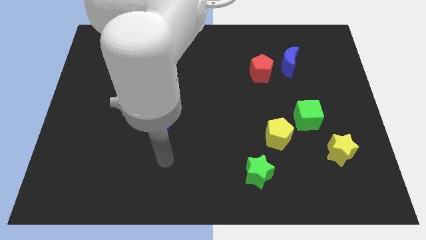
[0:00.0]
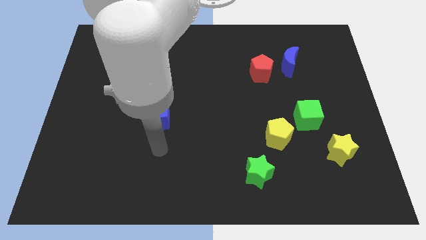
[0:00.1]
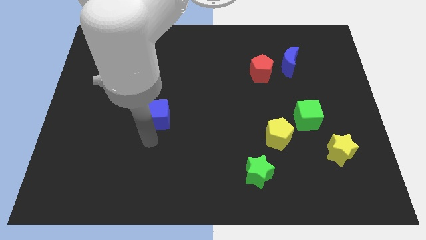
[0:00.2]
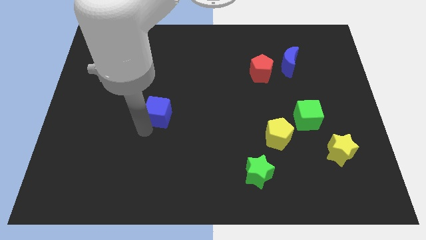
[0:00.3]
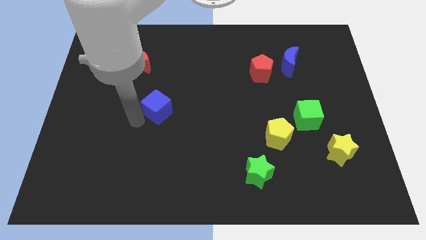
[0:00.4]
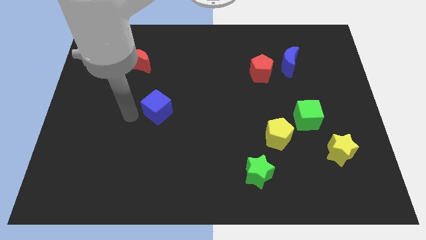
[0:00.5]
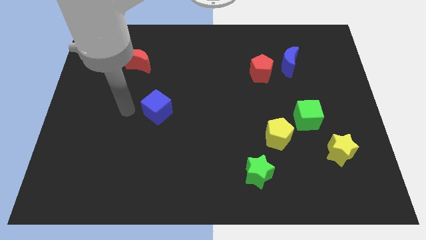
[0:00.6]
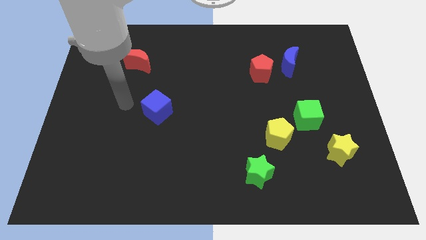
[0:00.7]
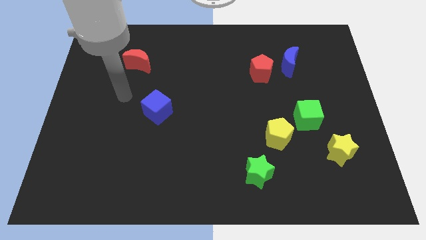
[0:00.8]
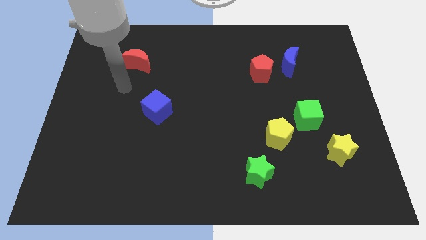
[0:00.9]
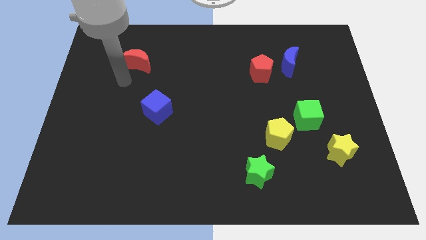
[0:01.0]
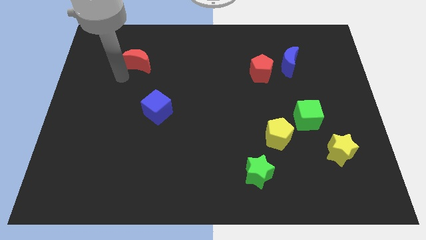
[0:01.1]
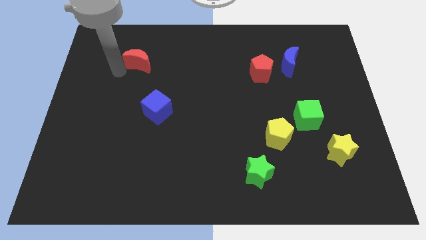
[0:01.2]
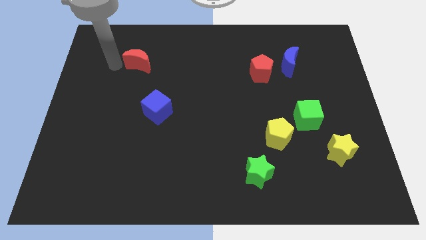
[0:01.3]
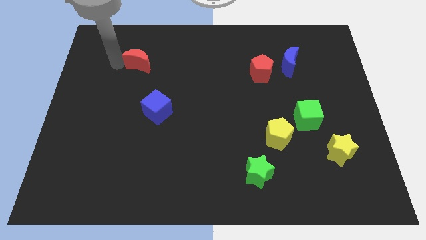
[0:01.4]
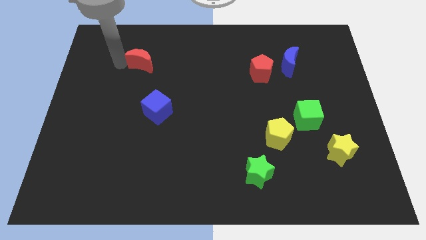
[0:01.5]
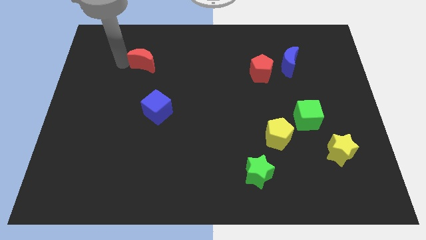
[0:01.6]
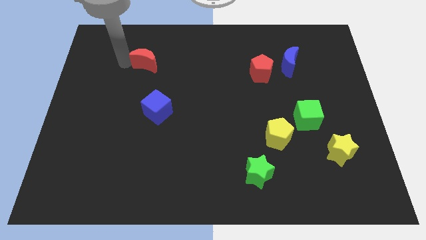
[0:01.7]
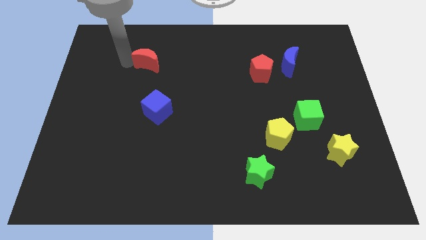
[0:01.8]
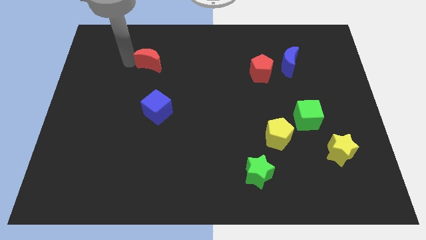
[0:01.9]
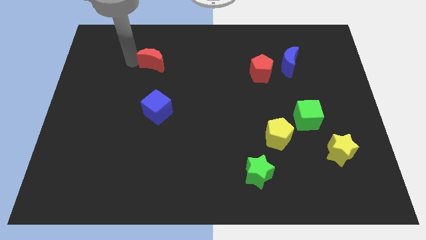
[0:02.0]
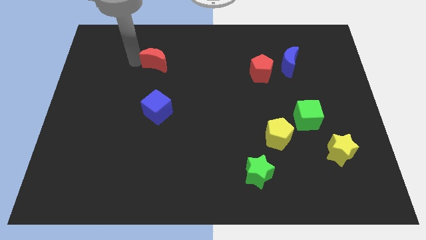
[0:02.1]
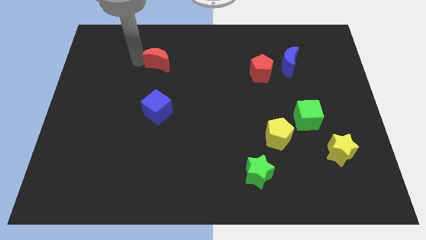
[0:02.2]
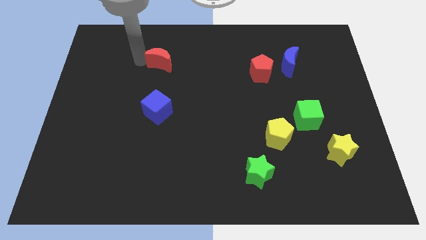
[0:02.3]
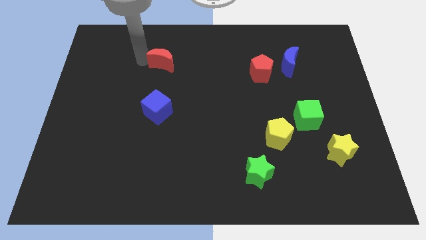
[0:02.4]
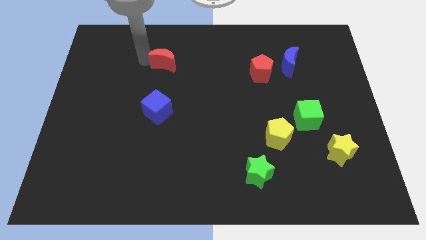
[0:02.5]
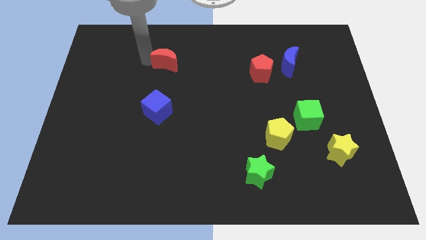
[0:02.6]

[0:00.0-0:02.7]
slide the red moon to the right a little

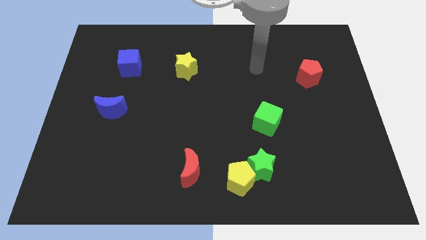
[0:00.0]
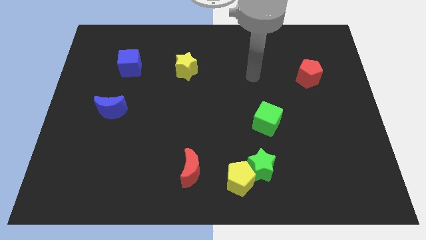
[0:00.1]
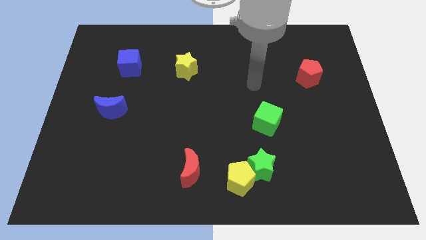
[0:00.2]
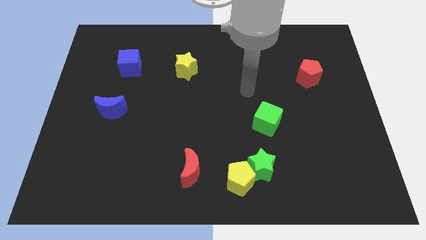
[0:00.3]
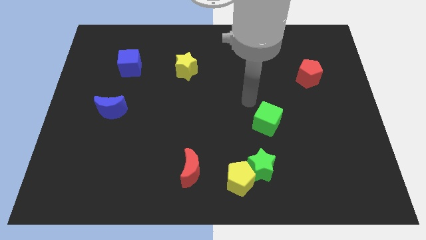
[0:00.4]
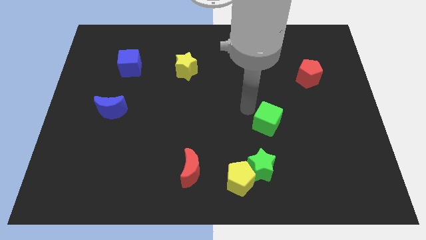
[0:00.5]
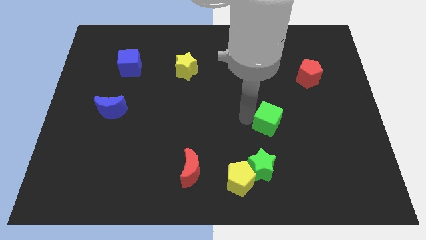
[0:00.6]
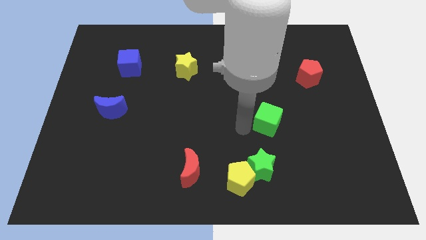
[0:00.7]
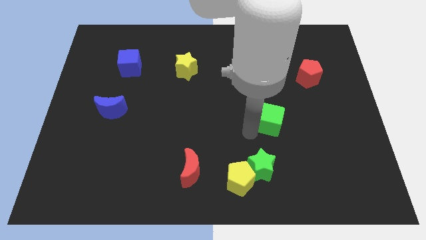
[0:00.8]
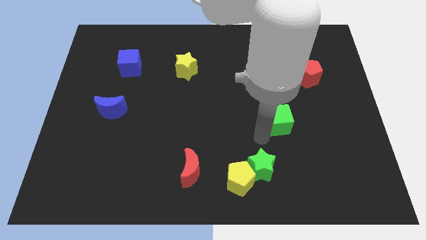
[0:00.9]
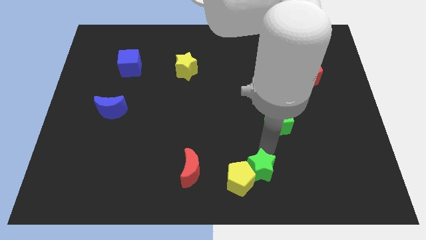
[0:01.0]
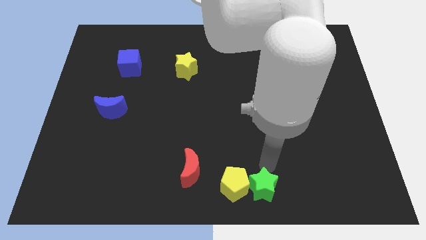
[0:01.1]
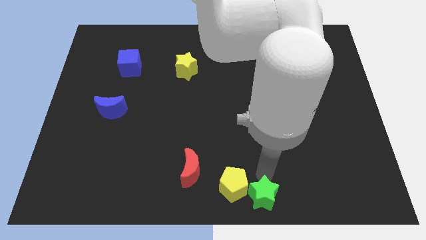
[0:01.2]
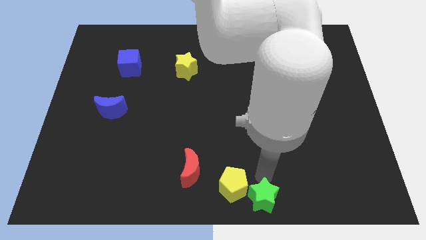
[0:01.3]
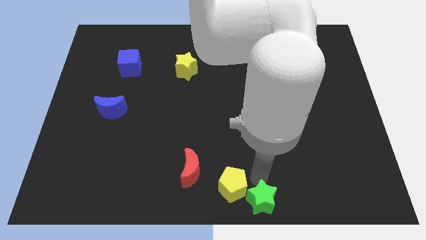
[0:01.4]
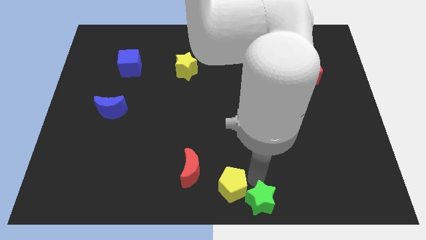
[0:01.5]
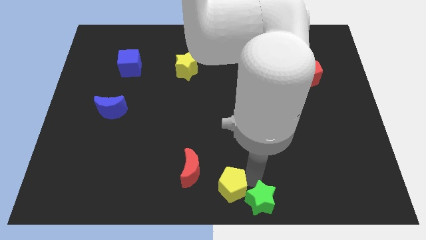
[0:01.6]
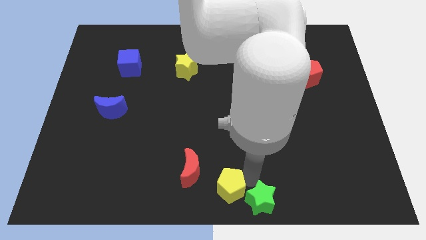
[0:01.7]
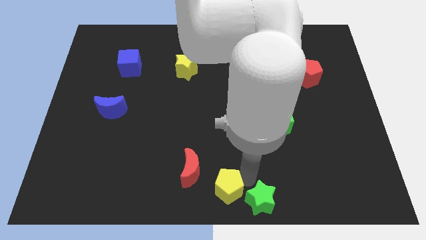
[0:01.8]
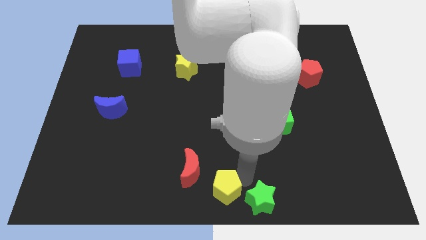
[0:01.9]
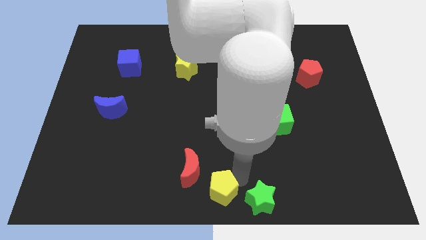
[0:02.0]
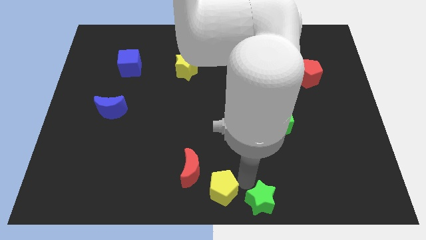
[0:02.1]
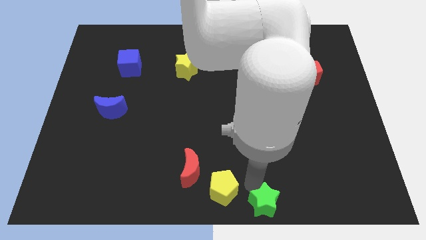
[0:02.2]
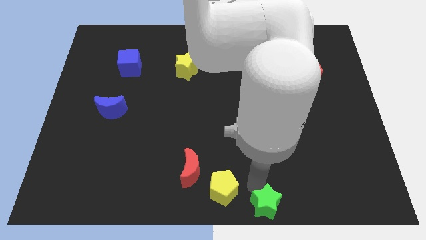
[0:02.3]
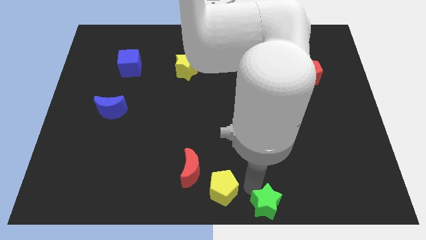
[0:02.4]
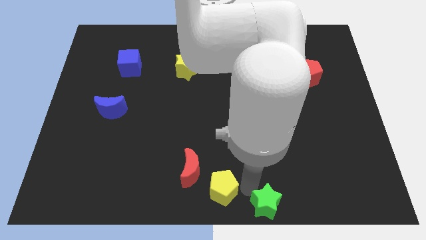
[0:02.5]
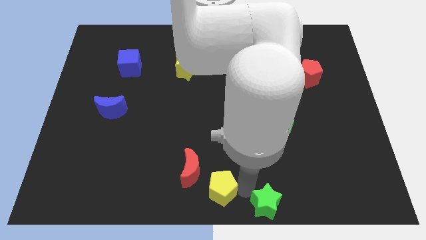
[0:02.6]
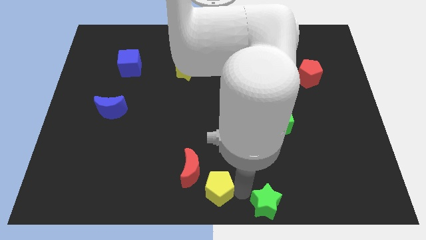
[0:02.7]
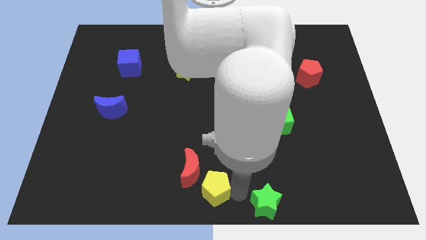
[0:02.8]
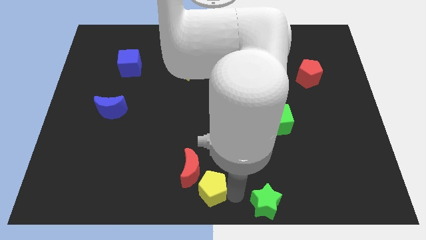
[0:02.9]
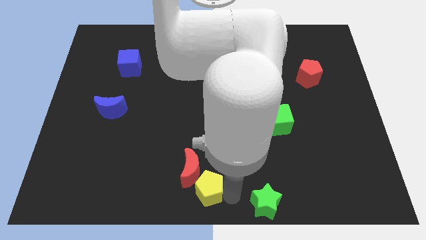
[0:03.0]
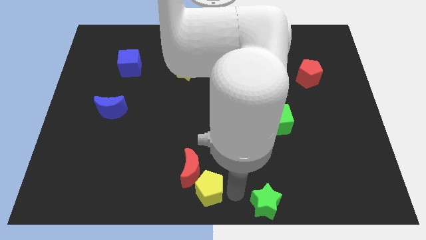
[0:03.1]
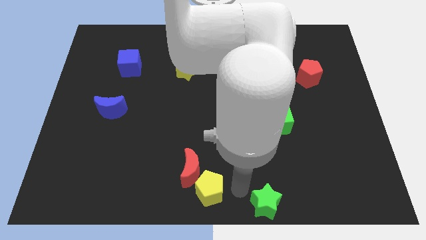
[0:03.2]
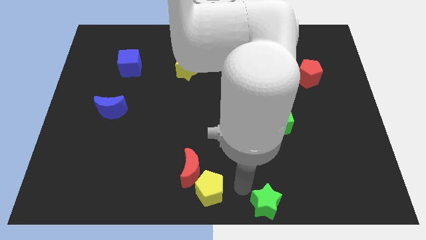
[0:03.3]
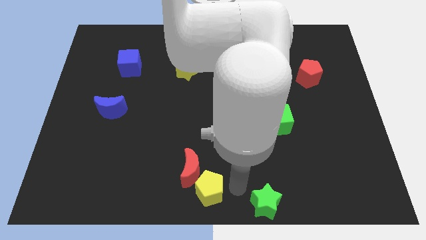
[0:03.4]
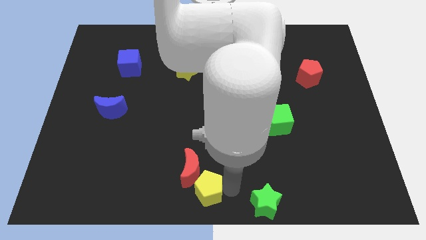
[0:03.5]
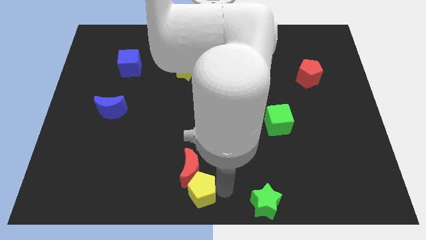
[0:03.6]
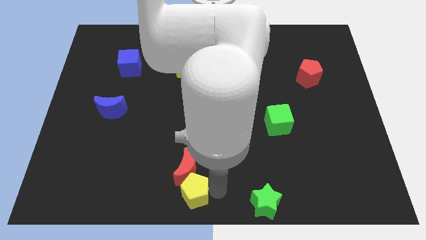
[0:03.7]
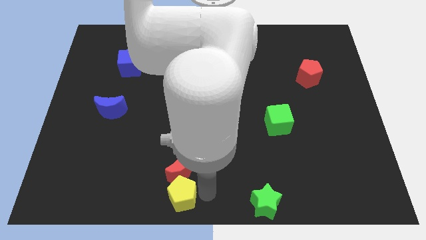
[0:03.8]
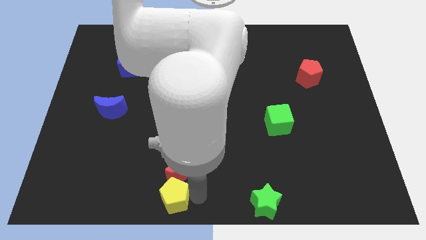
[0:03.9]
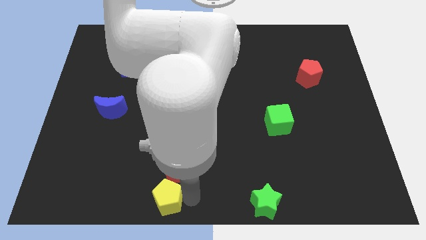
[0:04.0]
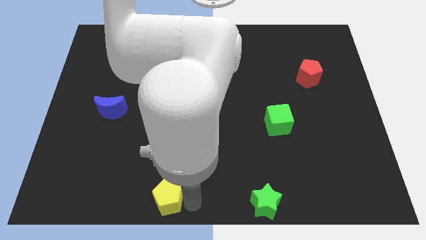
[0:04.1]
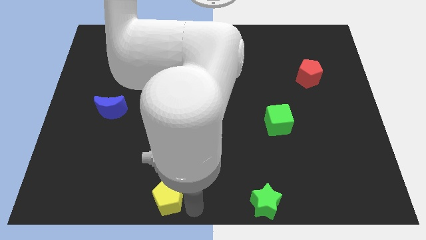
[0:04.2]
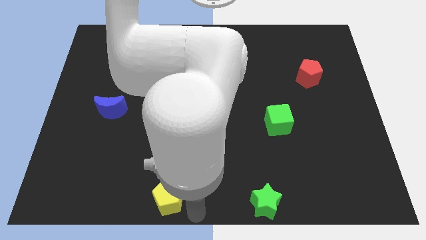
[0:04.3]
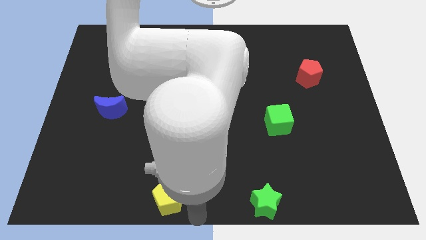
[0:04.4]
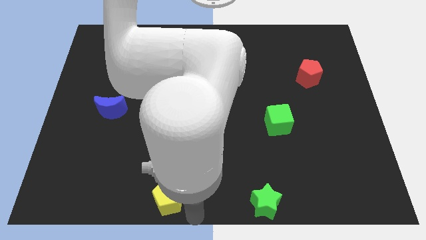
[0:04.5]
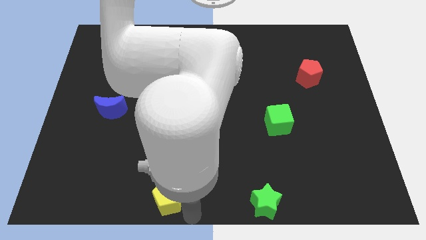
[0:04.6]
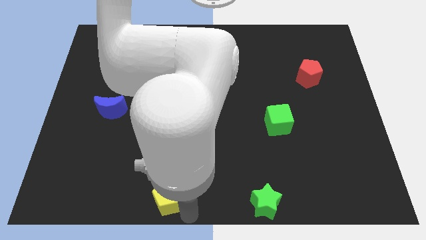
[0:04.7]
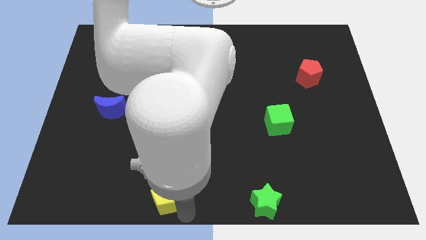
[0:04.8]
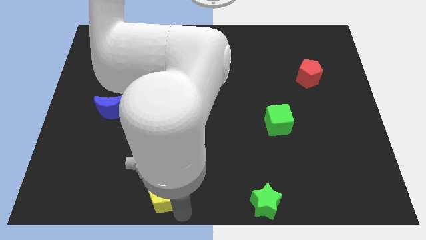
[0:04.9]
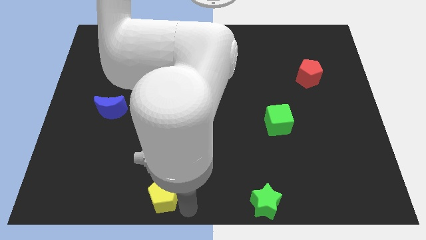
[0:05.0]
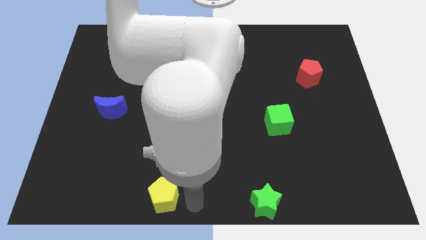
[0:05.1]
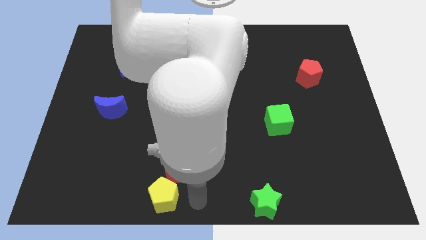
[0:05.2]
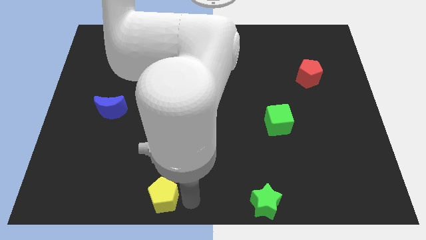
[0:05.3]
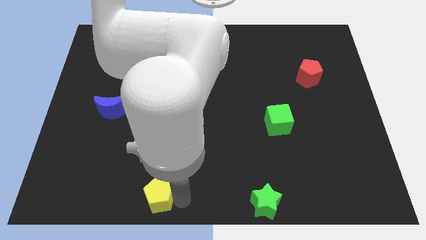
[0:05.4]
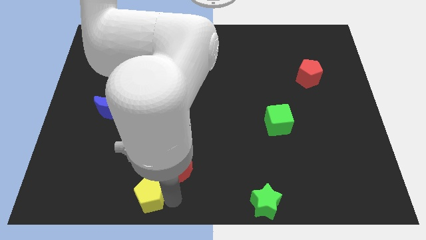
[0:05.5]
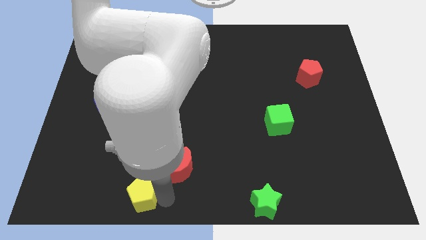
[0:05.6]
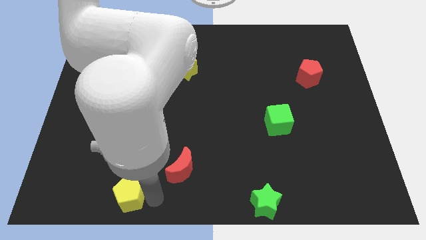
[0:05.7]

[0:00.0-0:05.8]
slide the yellow pentagon to the left
